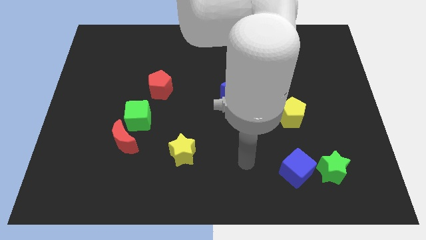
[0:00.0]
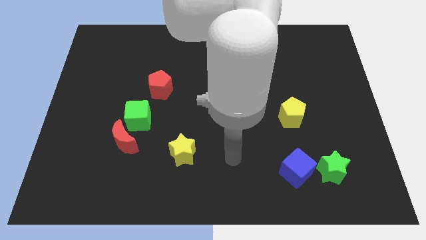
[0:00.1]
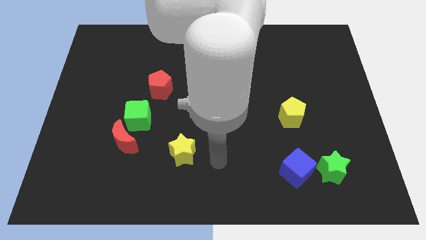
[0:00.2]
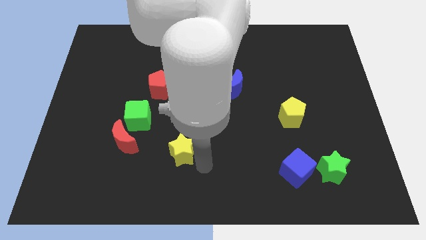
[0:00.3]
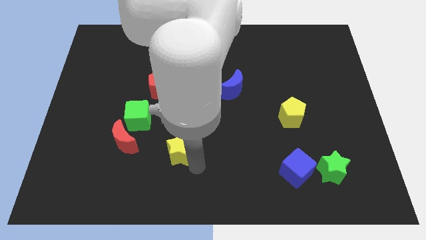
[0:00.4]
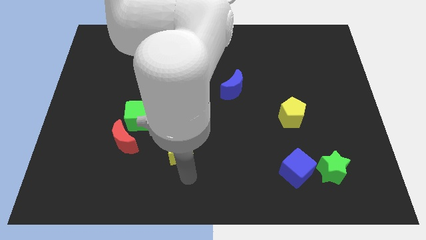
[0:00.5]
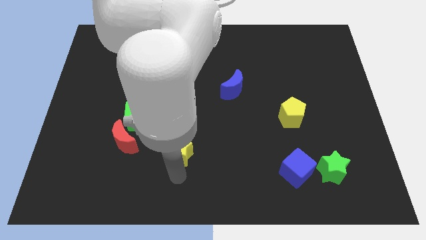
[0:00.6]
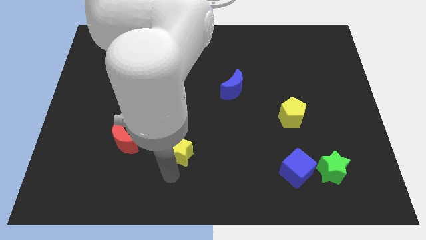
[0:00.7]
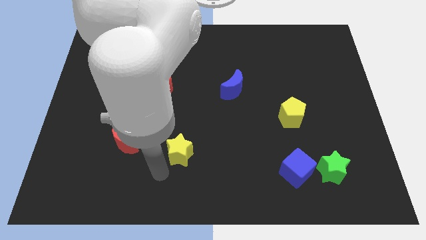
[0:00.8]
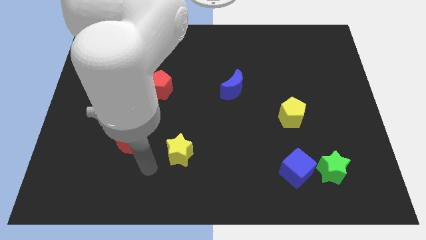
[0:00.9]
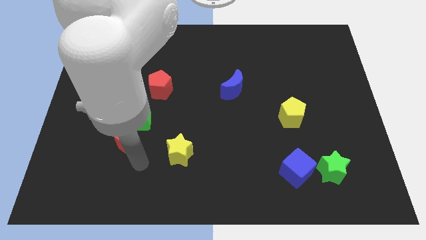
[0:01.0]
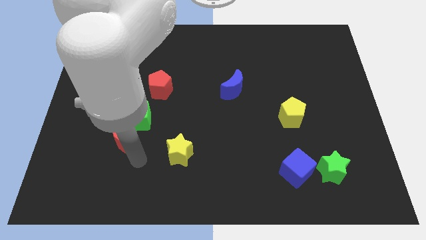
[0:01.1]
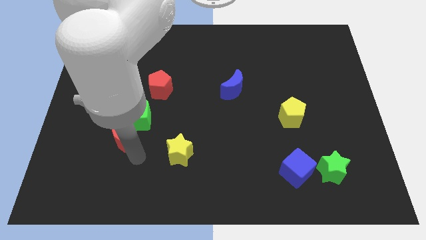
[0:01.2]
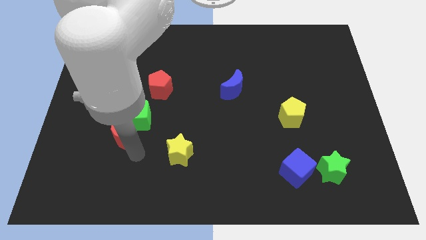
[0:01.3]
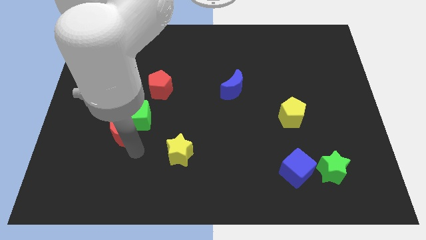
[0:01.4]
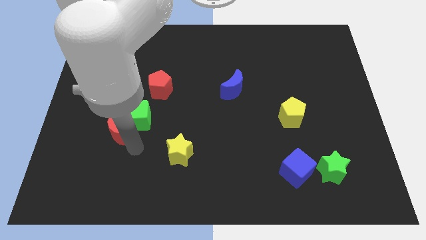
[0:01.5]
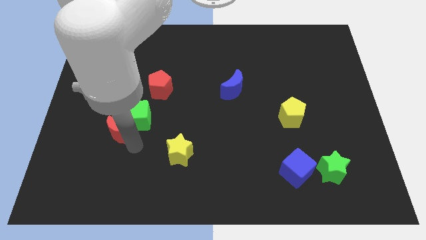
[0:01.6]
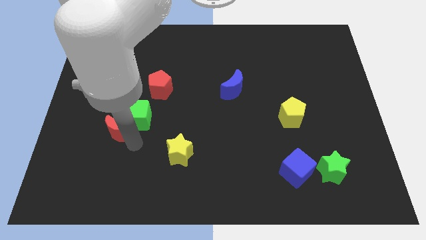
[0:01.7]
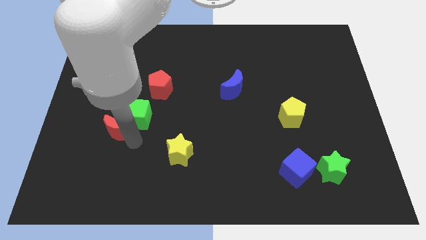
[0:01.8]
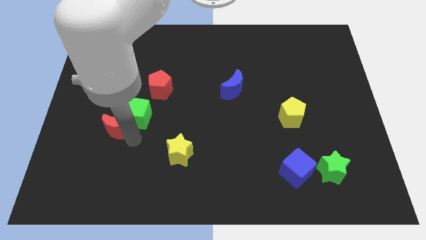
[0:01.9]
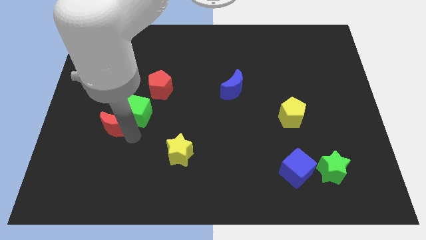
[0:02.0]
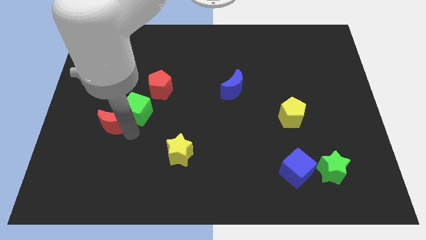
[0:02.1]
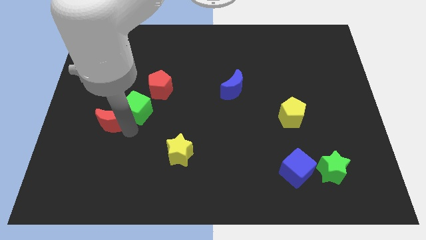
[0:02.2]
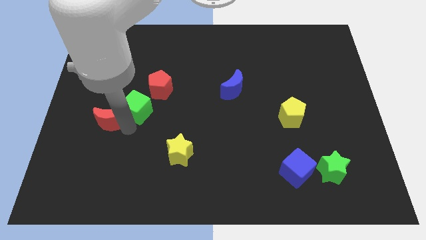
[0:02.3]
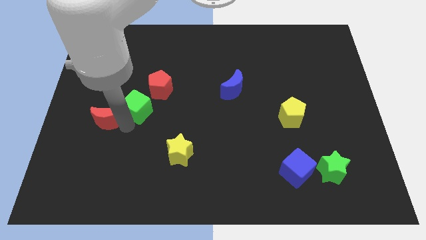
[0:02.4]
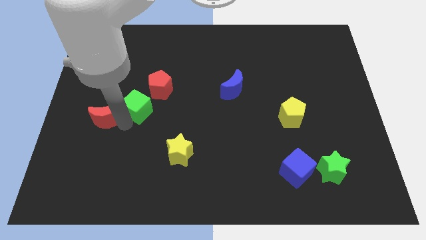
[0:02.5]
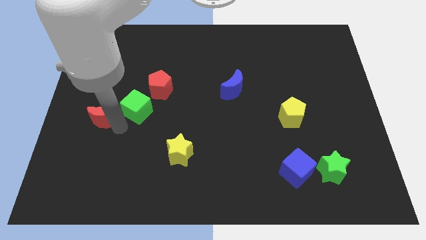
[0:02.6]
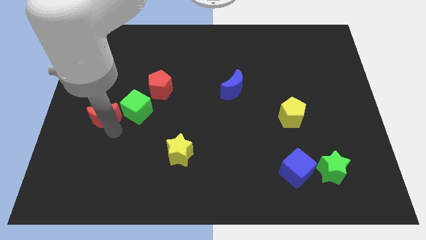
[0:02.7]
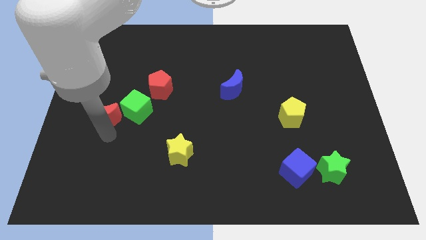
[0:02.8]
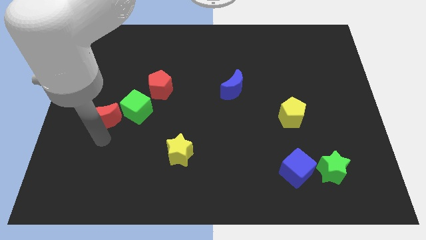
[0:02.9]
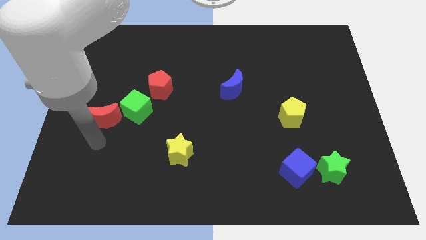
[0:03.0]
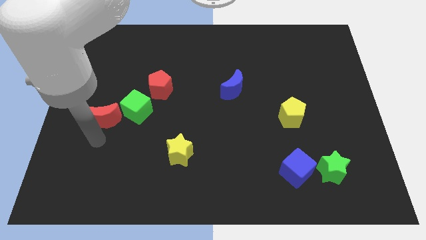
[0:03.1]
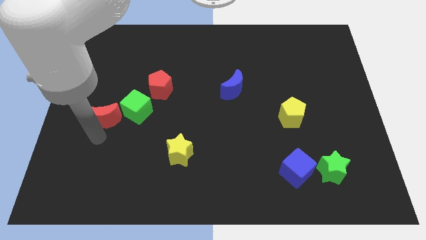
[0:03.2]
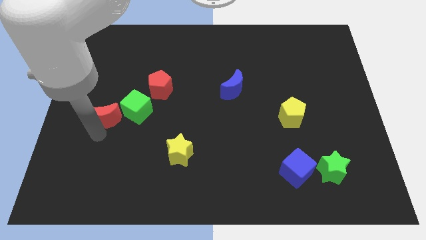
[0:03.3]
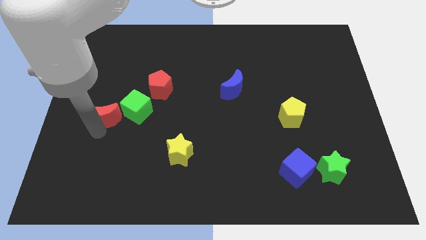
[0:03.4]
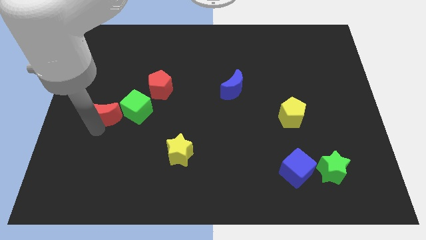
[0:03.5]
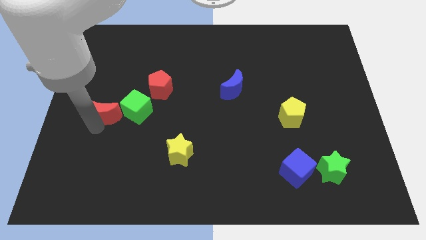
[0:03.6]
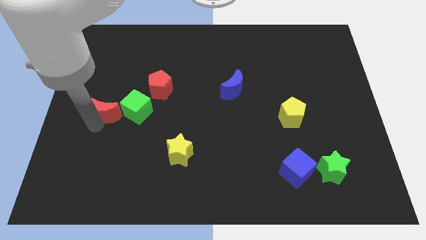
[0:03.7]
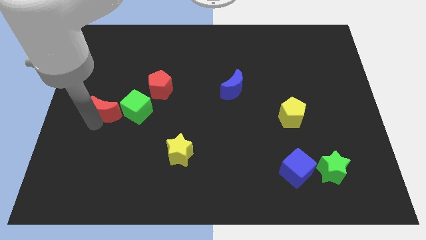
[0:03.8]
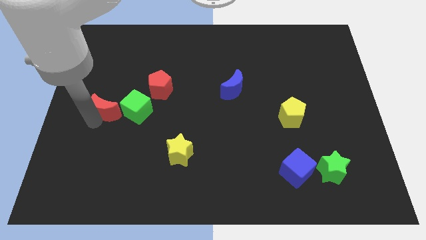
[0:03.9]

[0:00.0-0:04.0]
push the red moon somewhat up

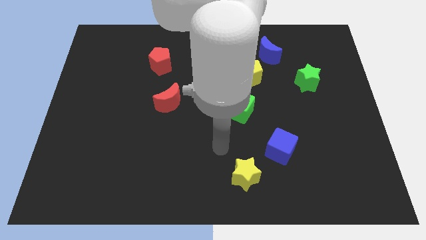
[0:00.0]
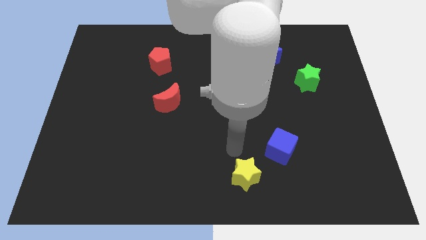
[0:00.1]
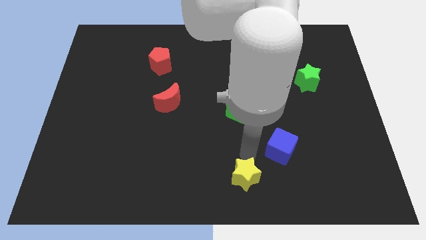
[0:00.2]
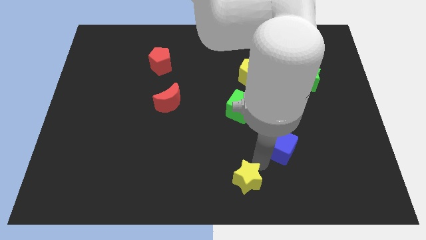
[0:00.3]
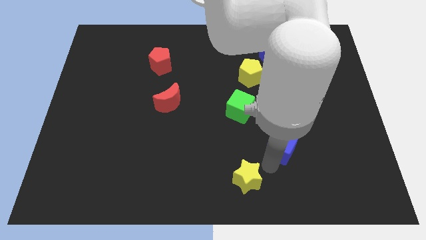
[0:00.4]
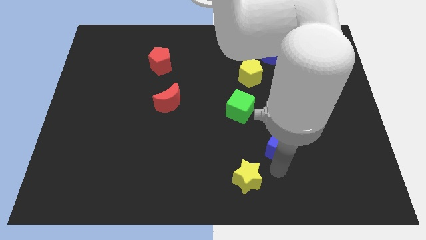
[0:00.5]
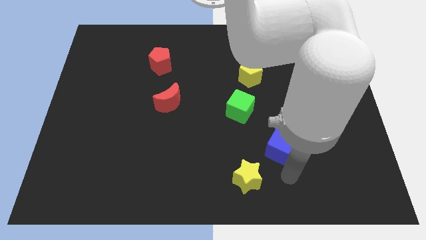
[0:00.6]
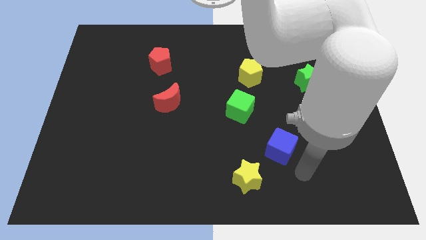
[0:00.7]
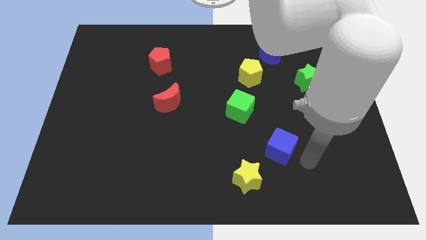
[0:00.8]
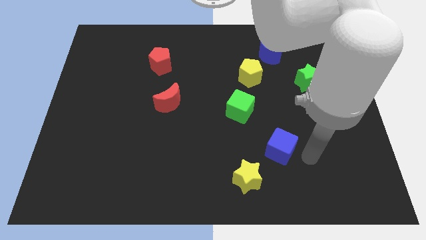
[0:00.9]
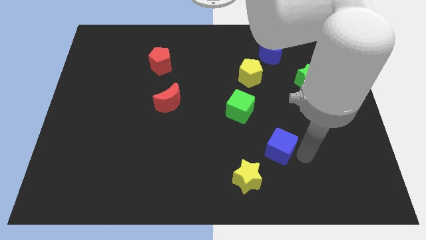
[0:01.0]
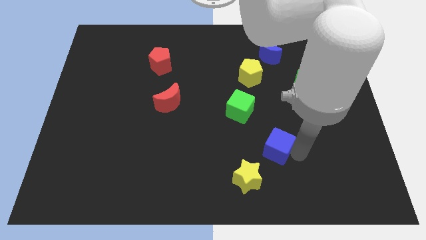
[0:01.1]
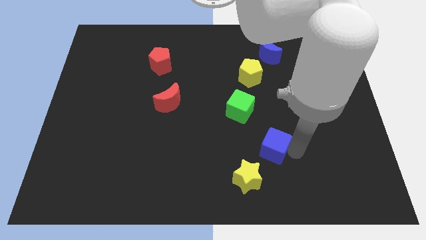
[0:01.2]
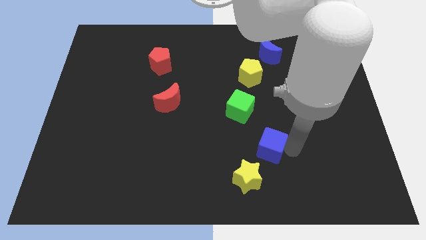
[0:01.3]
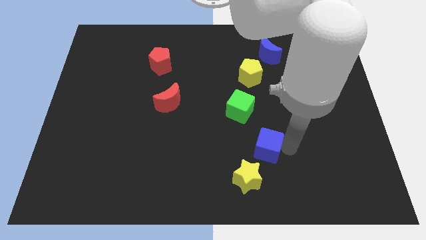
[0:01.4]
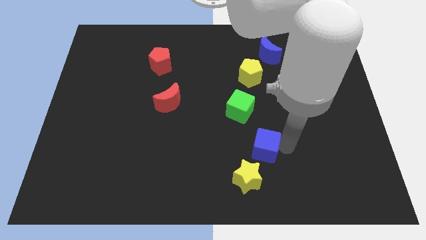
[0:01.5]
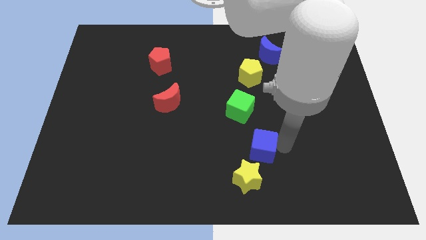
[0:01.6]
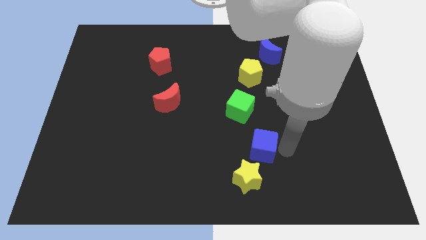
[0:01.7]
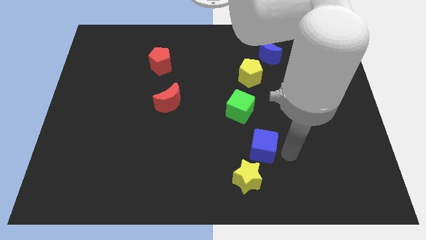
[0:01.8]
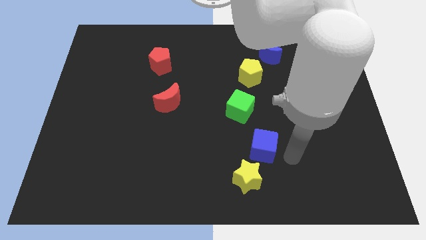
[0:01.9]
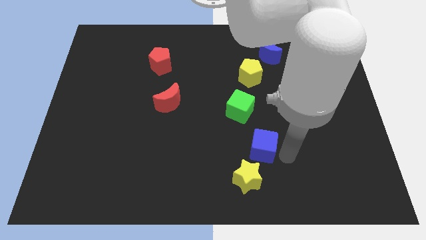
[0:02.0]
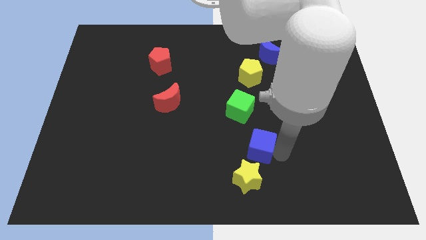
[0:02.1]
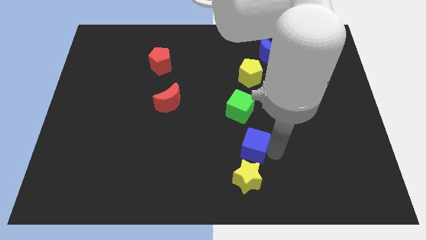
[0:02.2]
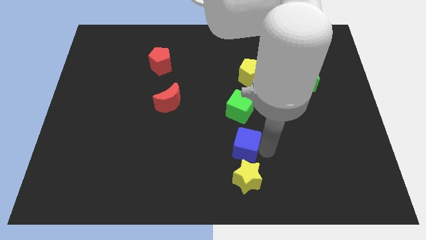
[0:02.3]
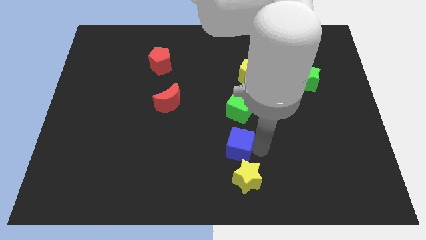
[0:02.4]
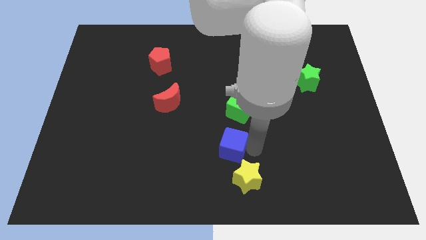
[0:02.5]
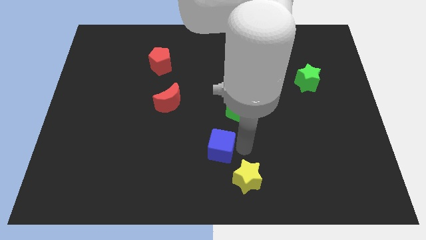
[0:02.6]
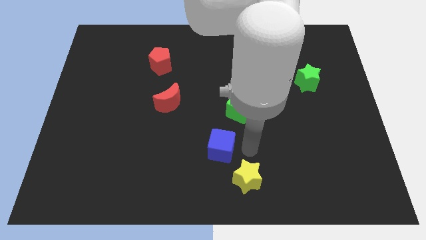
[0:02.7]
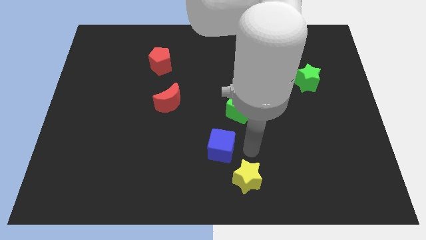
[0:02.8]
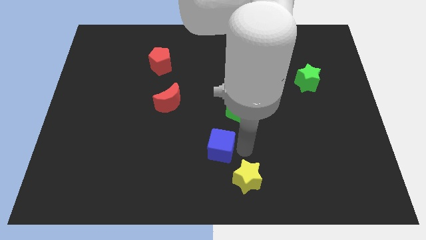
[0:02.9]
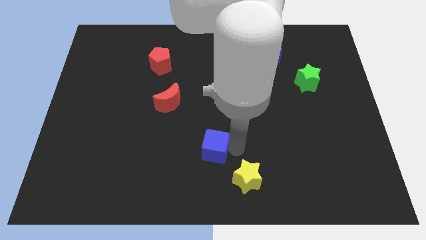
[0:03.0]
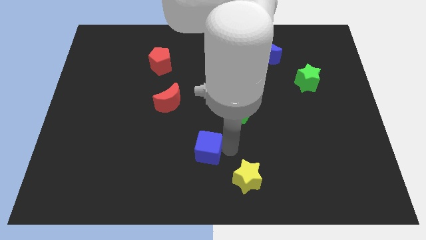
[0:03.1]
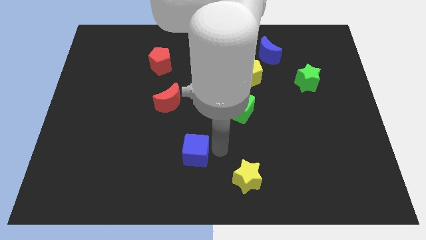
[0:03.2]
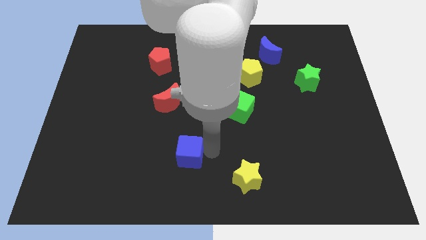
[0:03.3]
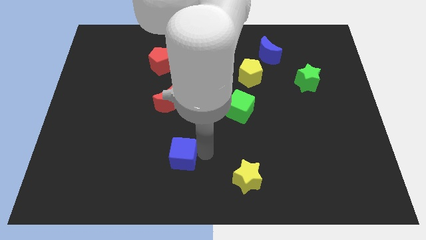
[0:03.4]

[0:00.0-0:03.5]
push the blue cube to the left

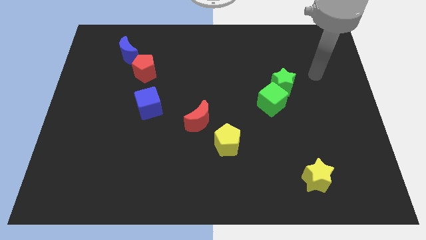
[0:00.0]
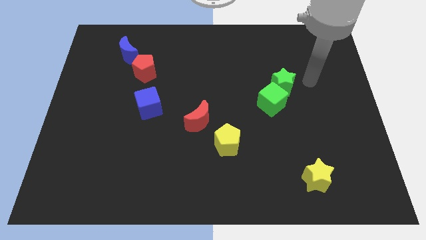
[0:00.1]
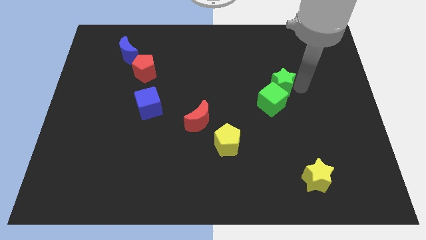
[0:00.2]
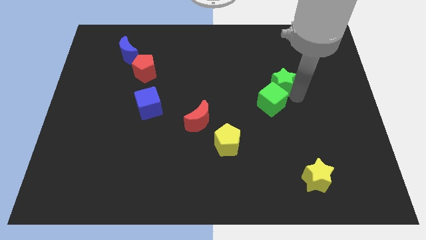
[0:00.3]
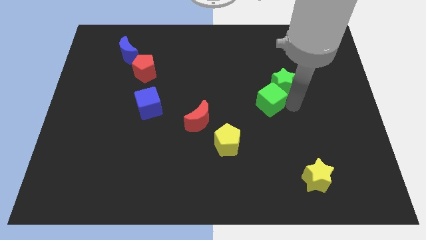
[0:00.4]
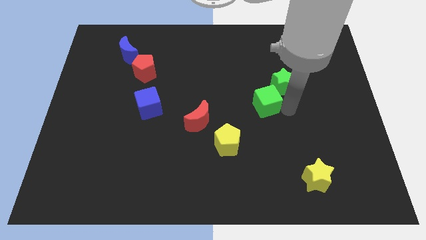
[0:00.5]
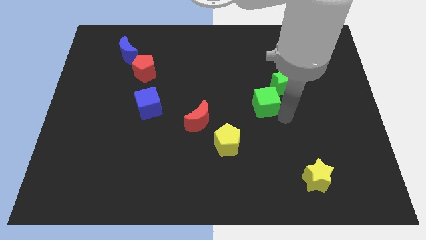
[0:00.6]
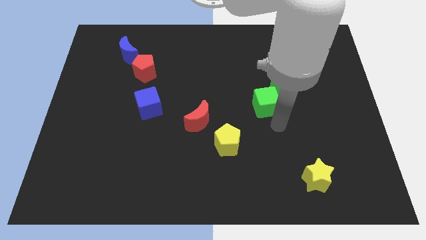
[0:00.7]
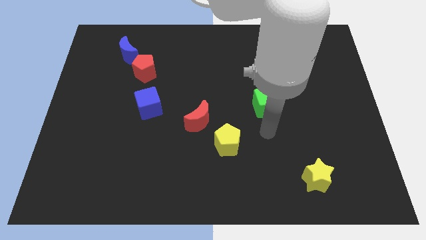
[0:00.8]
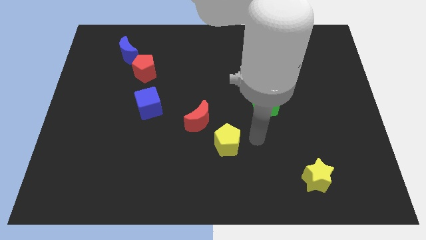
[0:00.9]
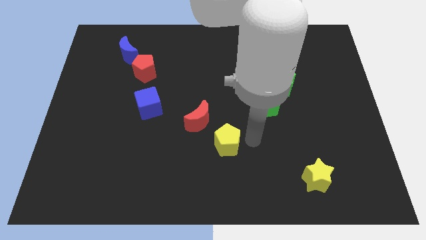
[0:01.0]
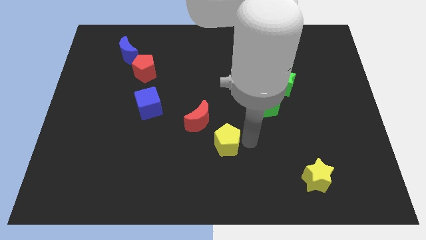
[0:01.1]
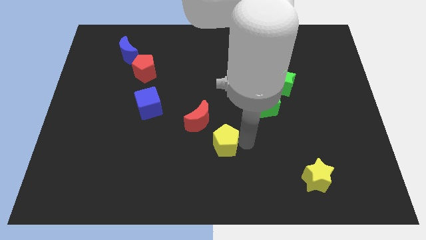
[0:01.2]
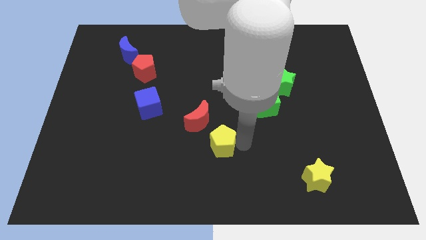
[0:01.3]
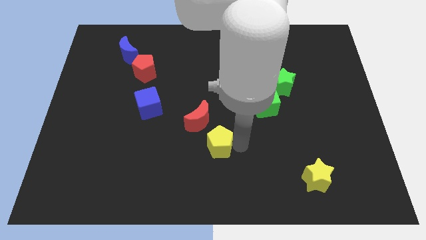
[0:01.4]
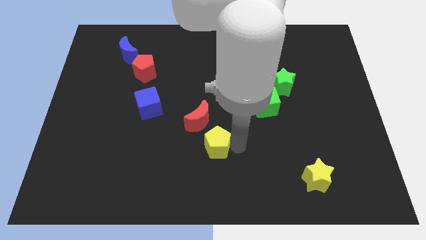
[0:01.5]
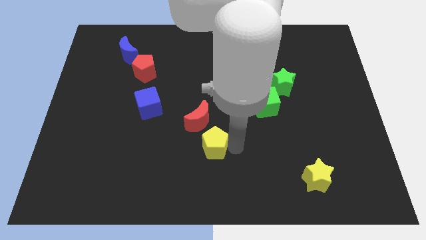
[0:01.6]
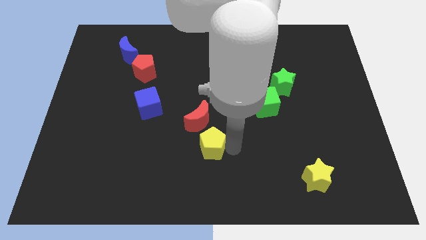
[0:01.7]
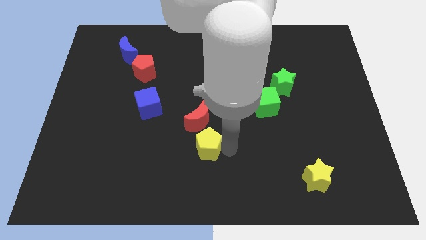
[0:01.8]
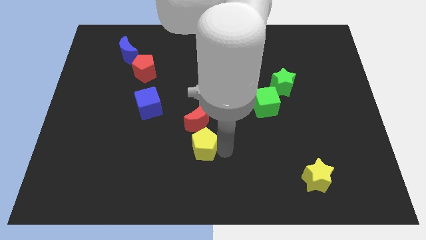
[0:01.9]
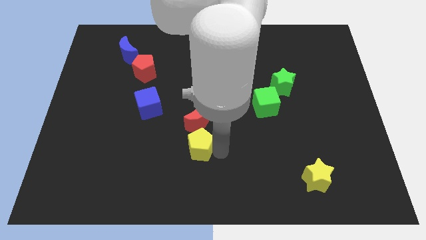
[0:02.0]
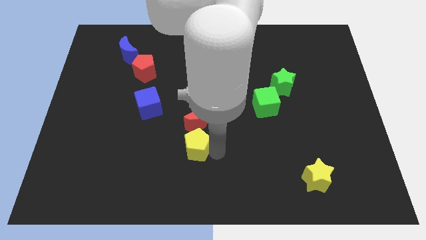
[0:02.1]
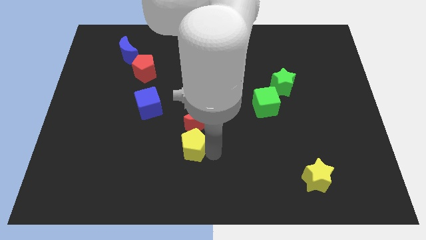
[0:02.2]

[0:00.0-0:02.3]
slightly slide the yellow pentagon left
